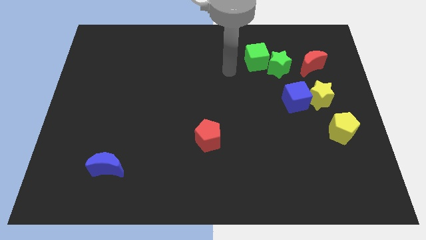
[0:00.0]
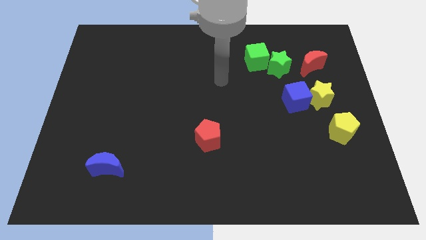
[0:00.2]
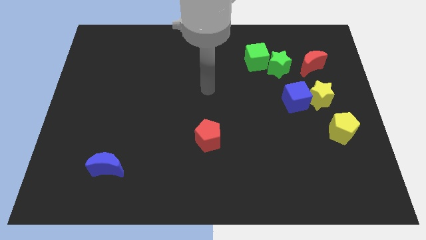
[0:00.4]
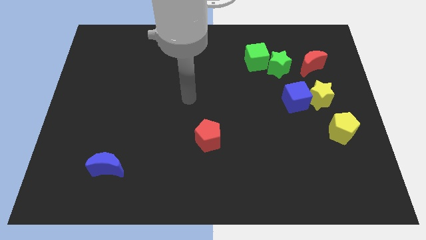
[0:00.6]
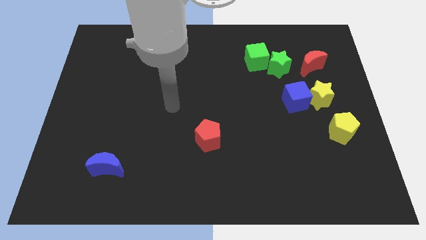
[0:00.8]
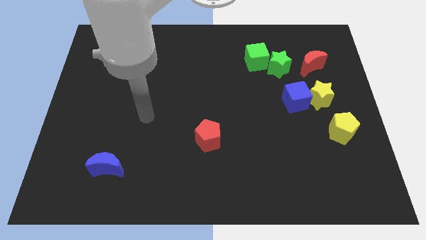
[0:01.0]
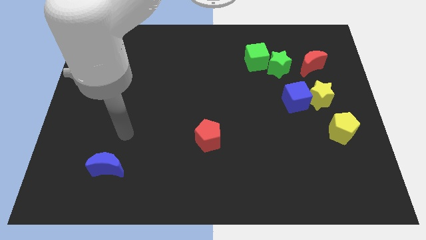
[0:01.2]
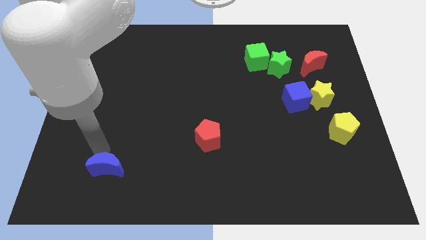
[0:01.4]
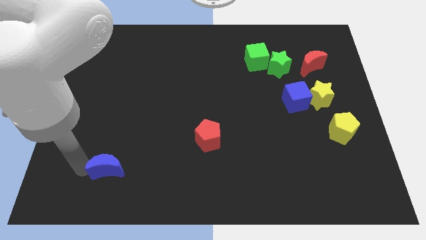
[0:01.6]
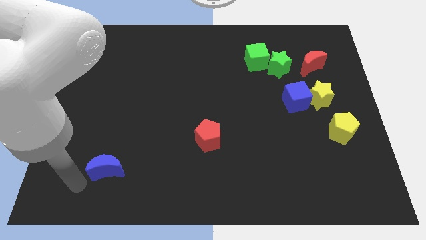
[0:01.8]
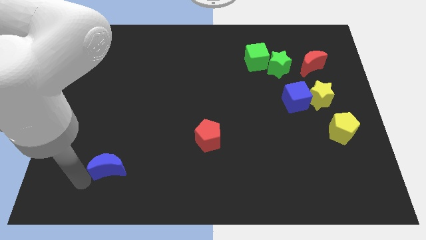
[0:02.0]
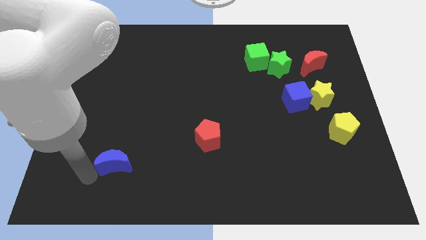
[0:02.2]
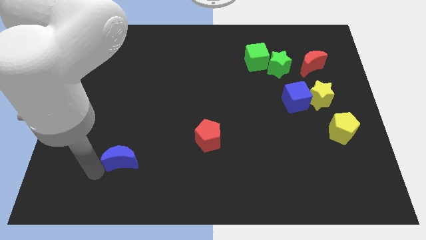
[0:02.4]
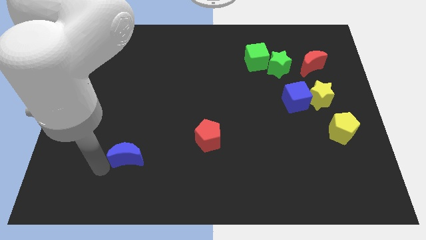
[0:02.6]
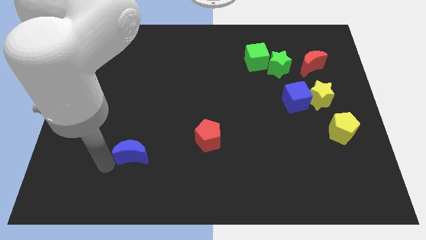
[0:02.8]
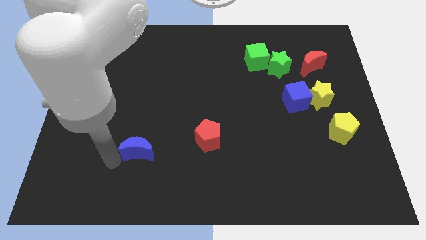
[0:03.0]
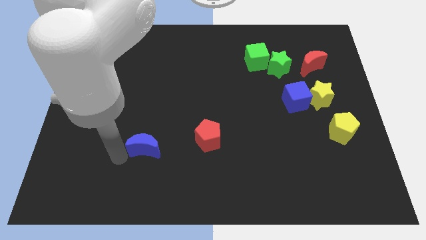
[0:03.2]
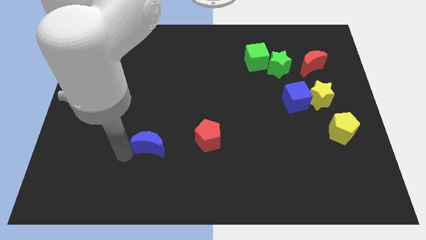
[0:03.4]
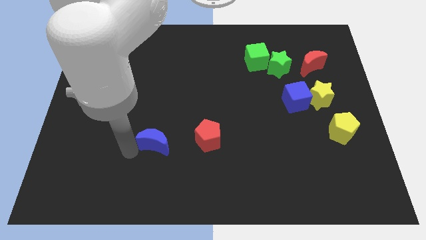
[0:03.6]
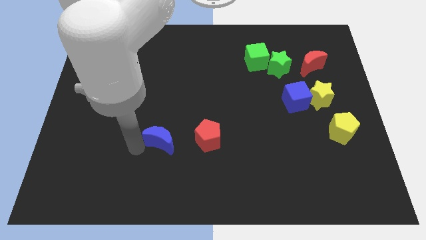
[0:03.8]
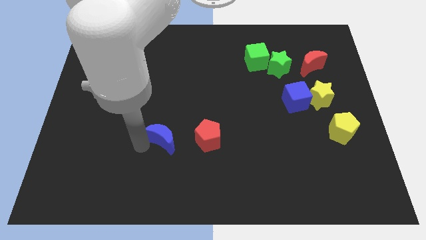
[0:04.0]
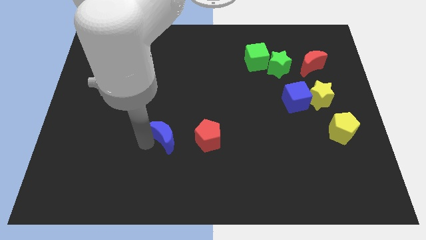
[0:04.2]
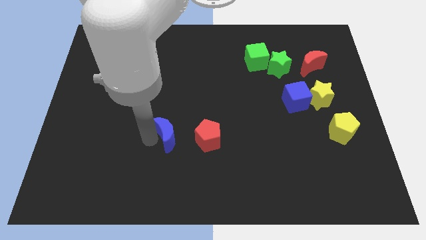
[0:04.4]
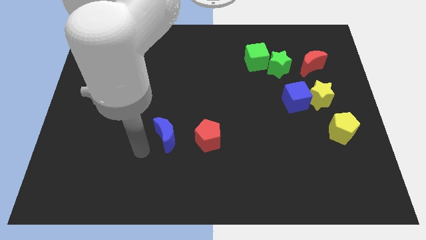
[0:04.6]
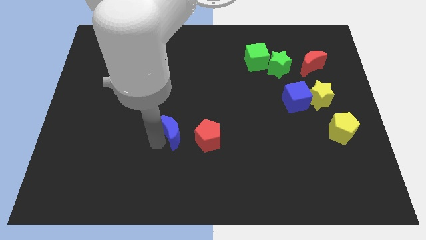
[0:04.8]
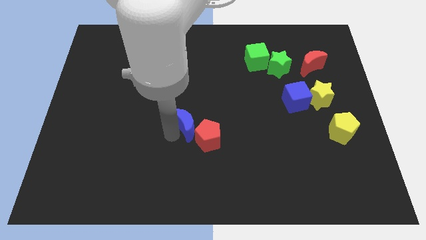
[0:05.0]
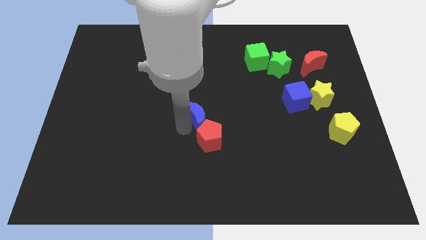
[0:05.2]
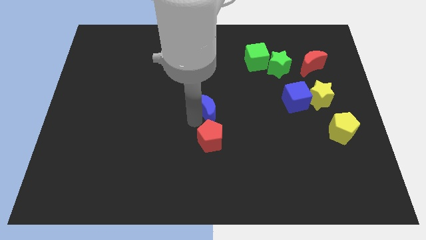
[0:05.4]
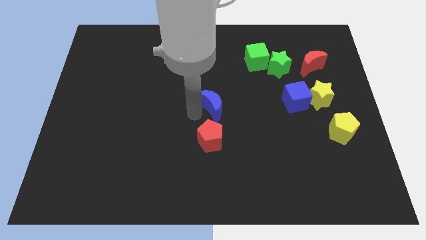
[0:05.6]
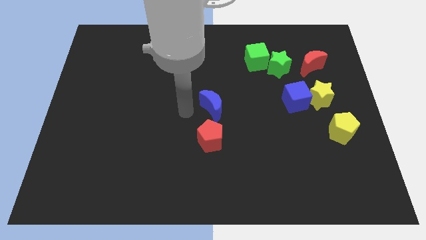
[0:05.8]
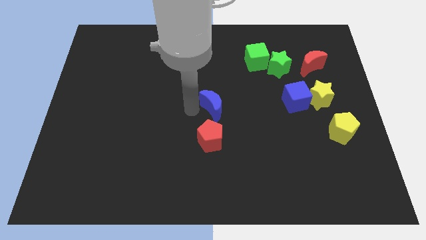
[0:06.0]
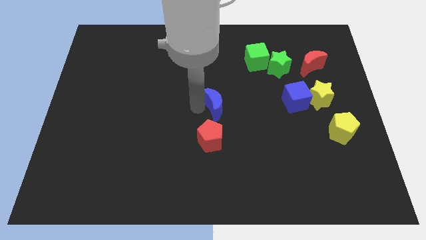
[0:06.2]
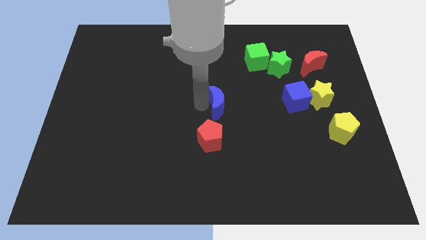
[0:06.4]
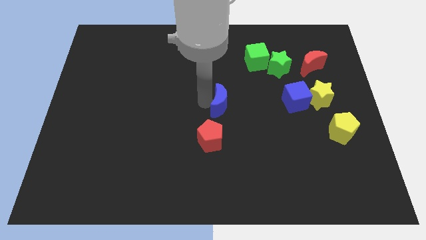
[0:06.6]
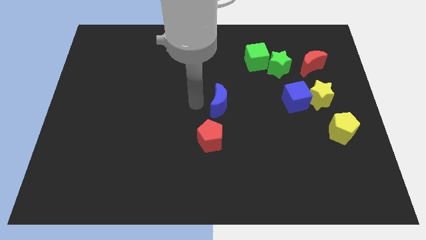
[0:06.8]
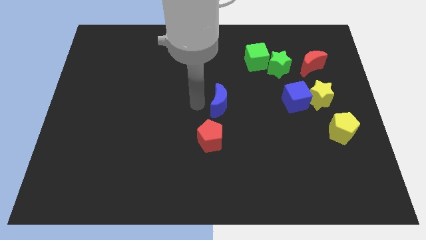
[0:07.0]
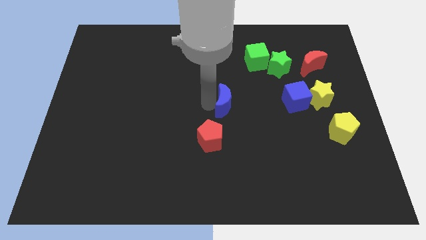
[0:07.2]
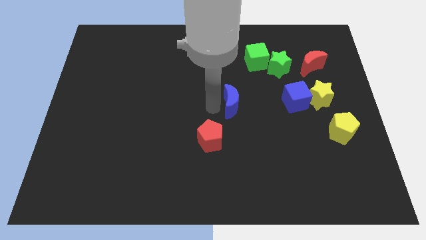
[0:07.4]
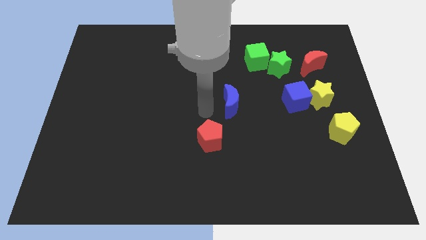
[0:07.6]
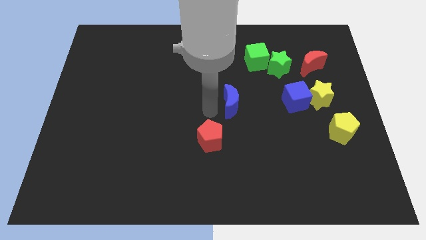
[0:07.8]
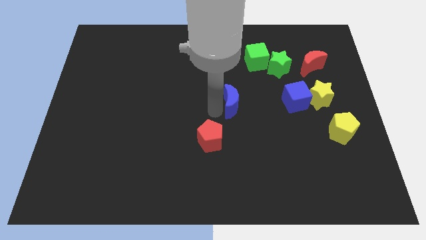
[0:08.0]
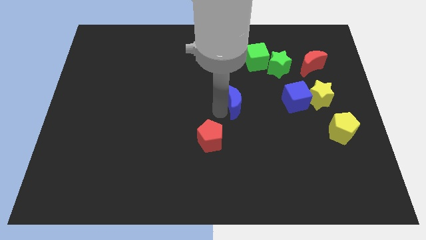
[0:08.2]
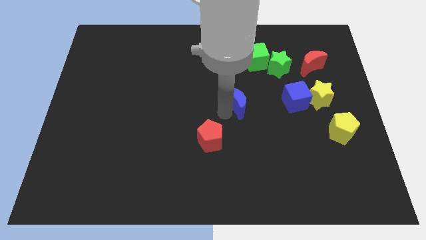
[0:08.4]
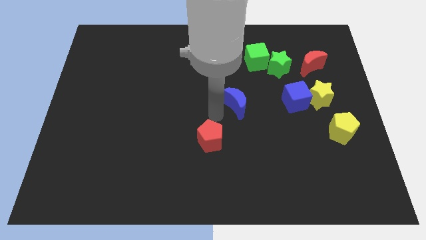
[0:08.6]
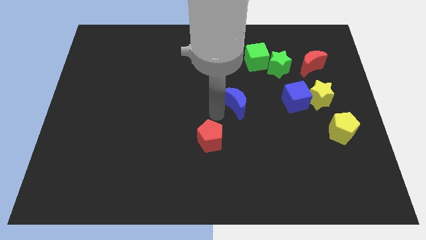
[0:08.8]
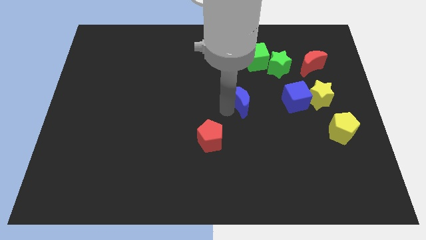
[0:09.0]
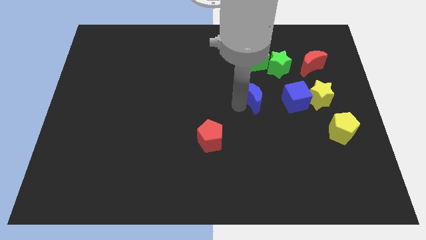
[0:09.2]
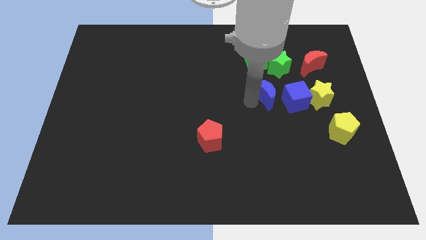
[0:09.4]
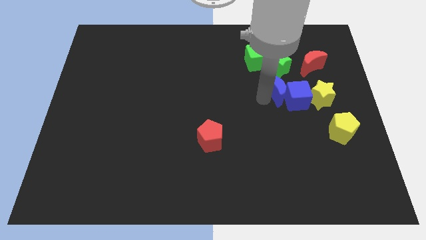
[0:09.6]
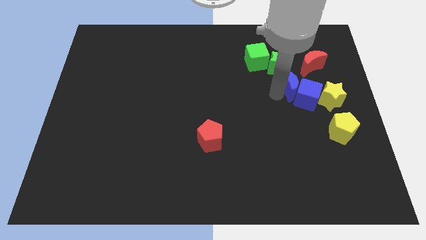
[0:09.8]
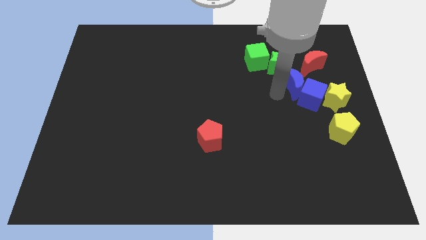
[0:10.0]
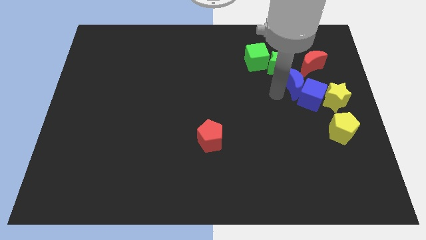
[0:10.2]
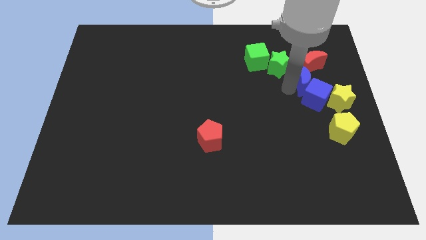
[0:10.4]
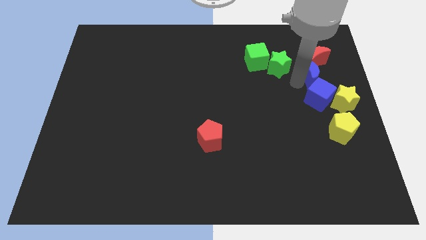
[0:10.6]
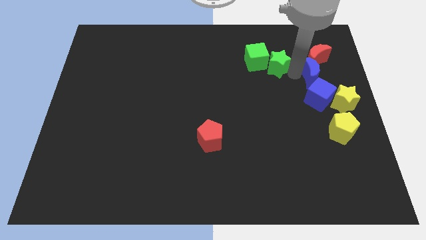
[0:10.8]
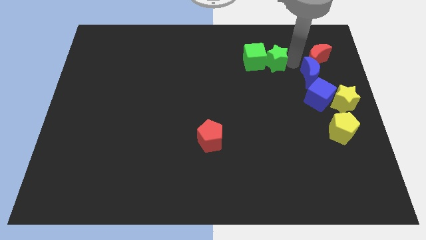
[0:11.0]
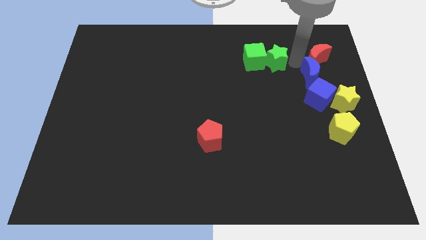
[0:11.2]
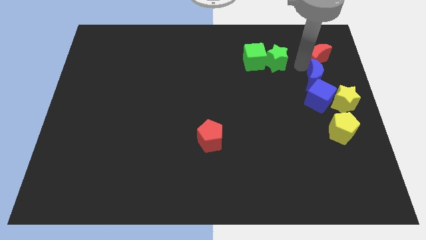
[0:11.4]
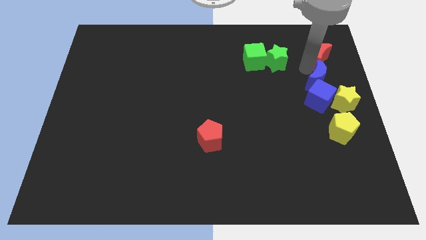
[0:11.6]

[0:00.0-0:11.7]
move the blue moon to the top of the yellow pentagon

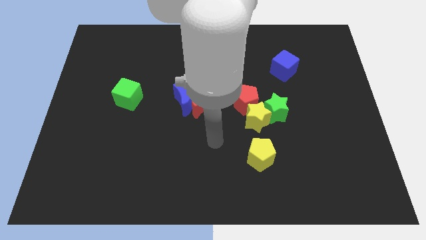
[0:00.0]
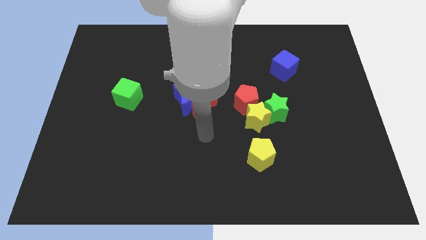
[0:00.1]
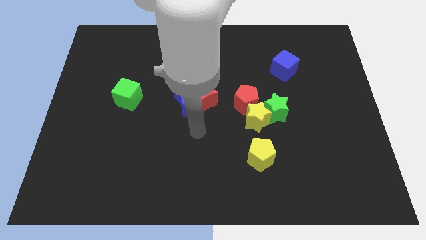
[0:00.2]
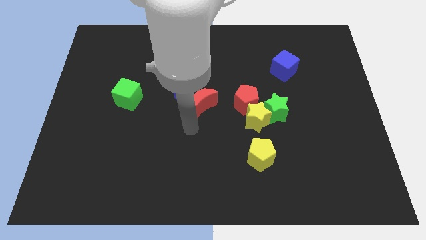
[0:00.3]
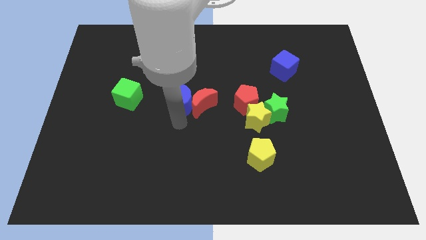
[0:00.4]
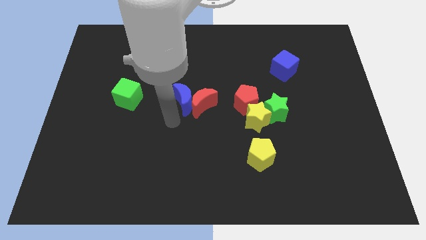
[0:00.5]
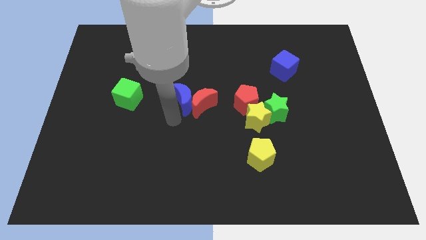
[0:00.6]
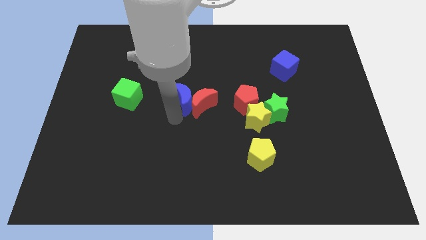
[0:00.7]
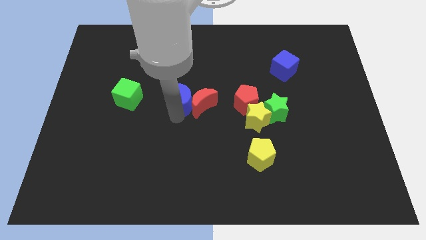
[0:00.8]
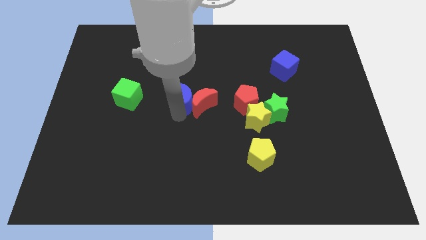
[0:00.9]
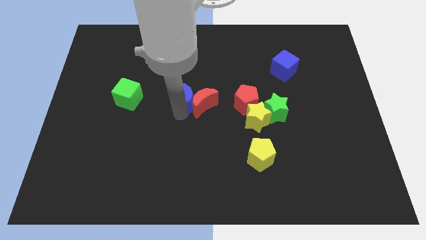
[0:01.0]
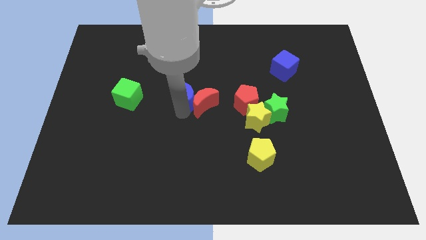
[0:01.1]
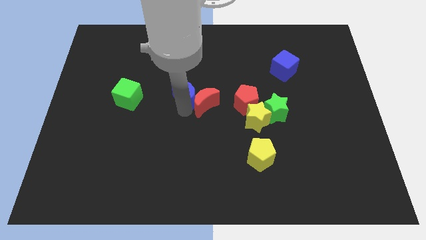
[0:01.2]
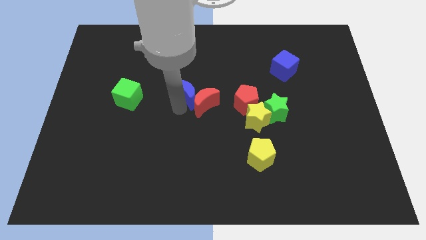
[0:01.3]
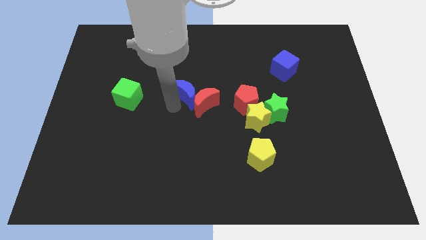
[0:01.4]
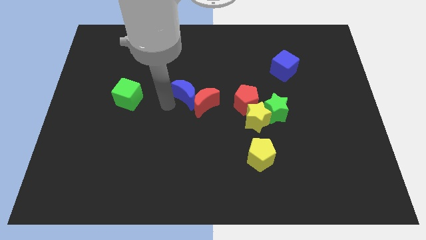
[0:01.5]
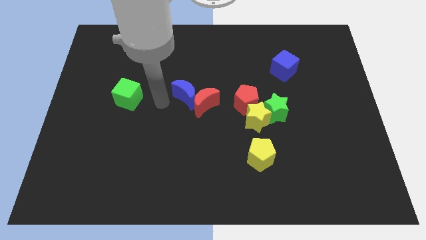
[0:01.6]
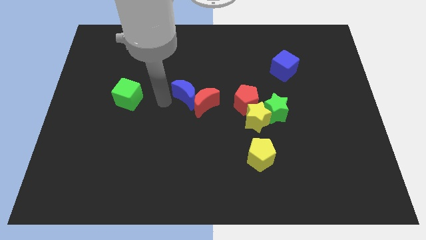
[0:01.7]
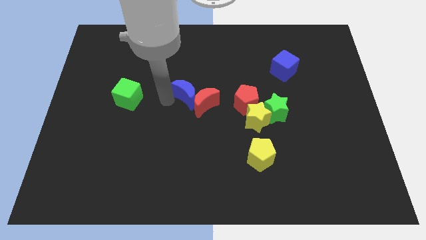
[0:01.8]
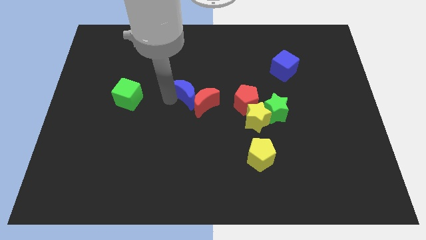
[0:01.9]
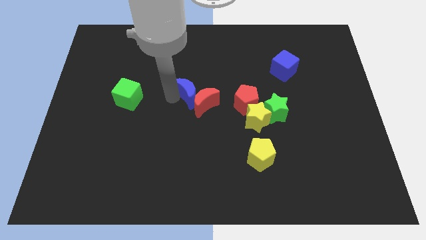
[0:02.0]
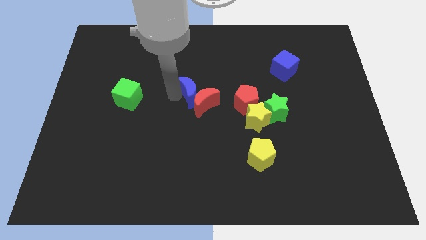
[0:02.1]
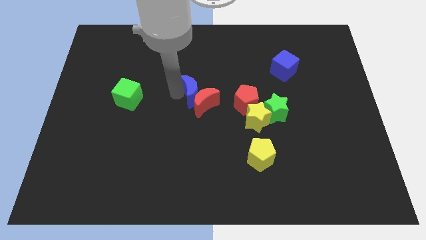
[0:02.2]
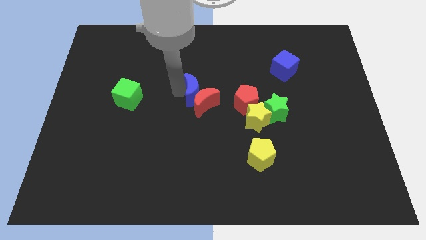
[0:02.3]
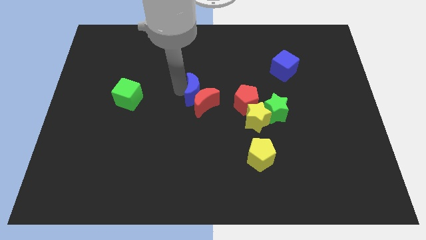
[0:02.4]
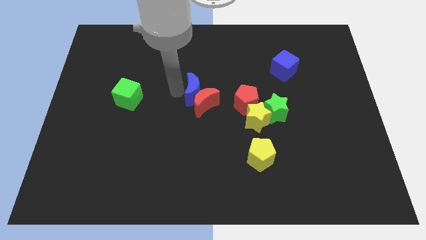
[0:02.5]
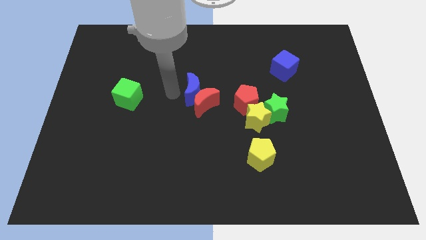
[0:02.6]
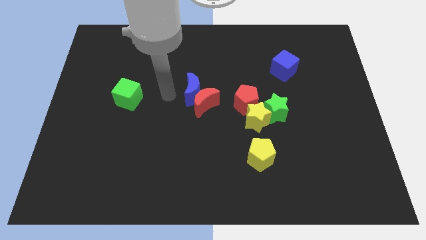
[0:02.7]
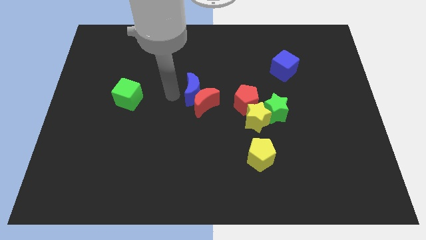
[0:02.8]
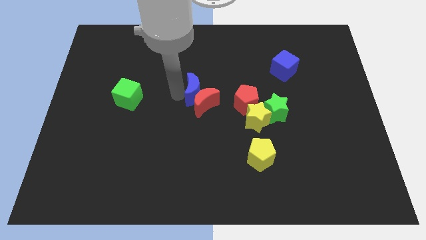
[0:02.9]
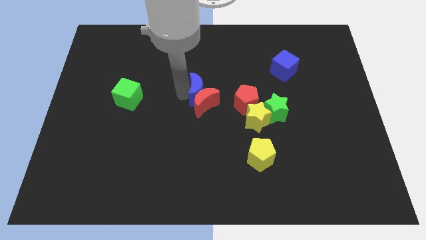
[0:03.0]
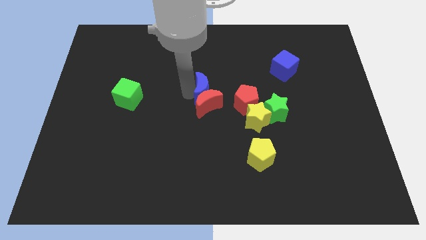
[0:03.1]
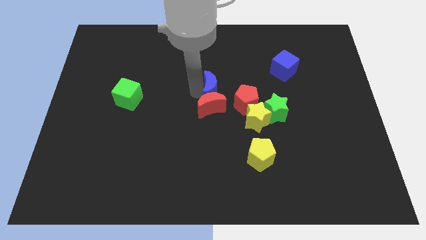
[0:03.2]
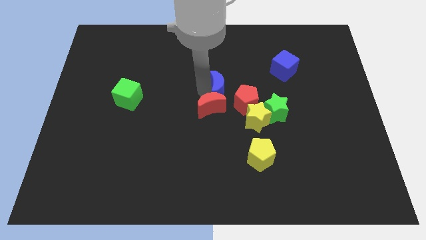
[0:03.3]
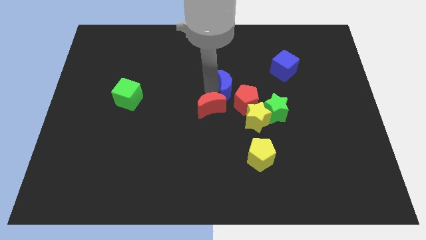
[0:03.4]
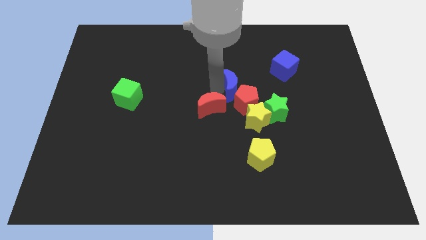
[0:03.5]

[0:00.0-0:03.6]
move the blue moon to the top left side of the green star
